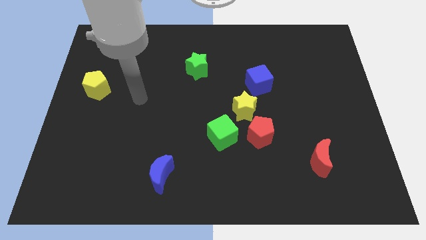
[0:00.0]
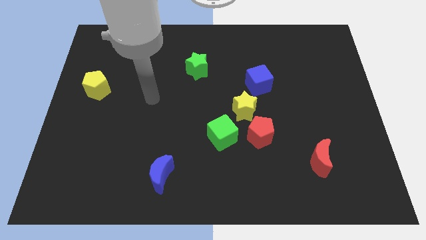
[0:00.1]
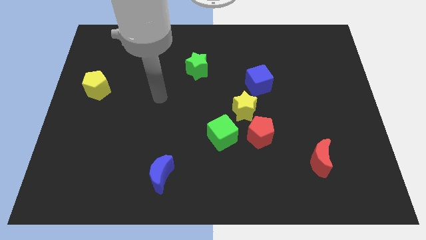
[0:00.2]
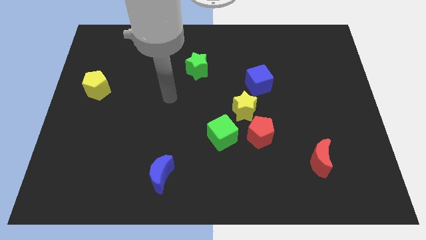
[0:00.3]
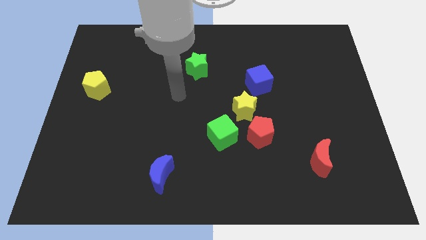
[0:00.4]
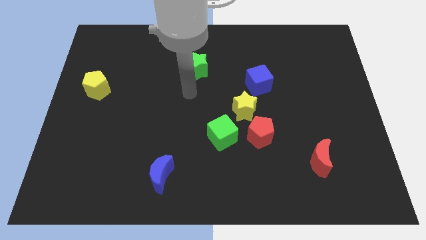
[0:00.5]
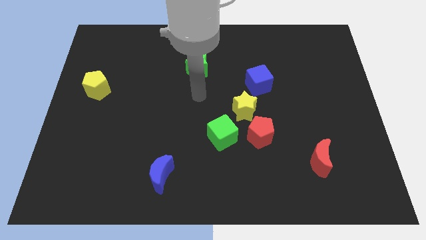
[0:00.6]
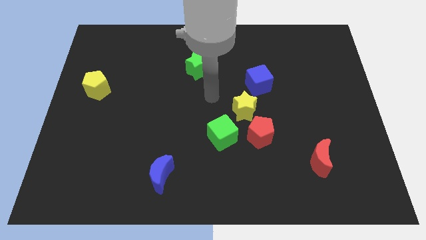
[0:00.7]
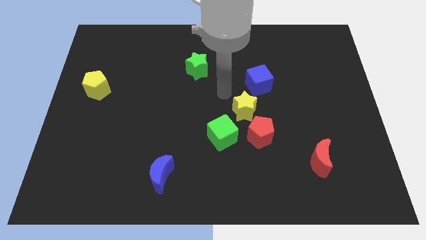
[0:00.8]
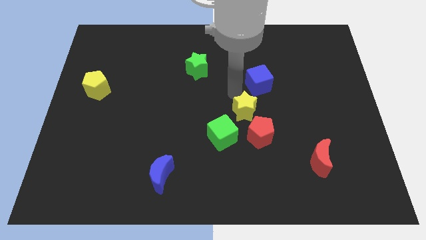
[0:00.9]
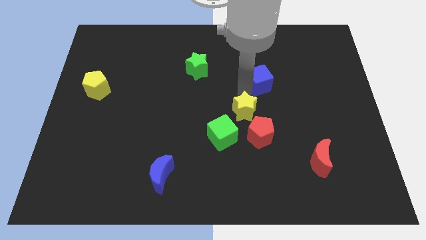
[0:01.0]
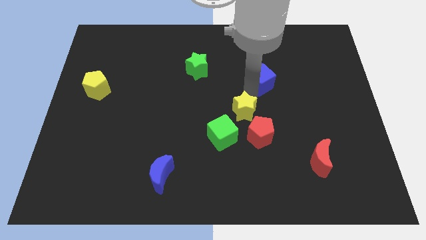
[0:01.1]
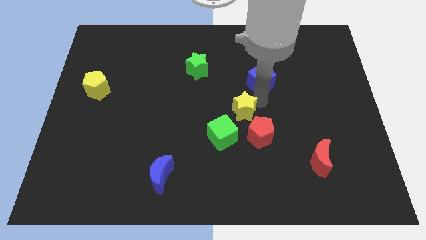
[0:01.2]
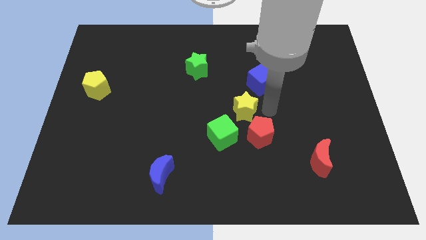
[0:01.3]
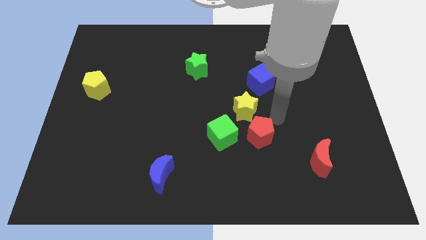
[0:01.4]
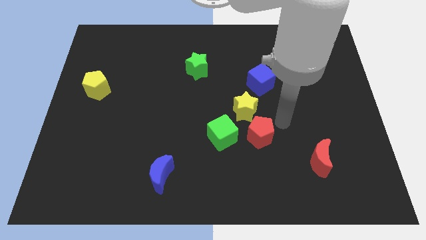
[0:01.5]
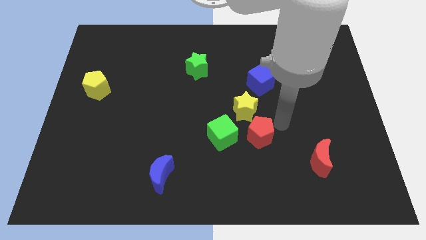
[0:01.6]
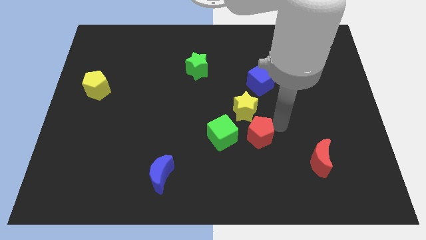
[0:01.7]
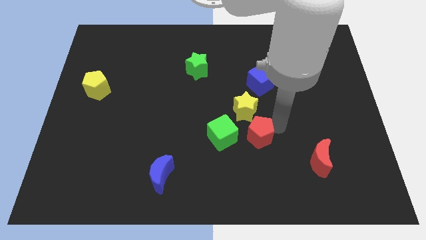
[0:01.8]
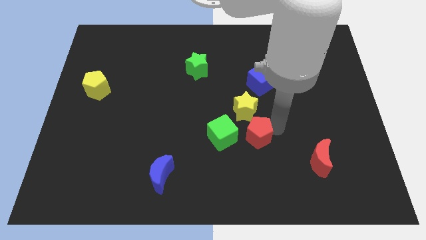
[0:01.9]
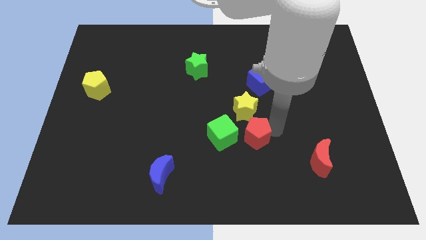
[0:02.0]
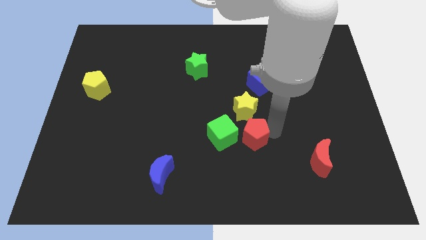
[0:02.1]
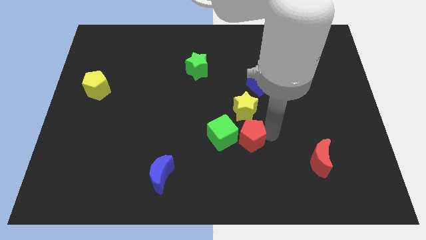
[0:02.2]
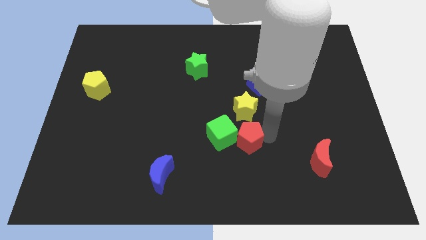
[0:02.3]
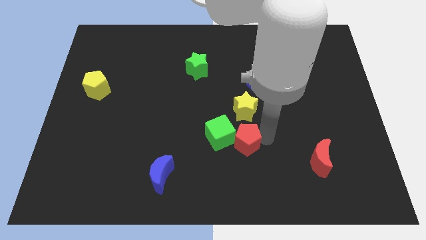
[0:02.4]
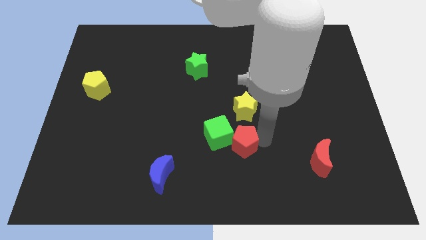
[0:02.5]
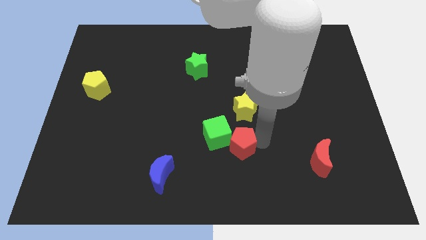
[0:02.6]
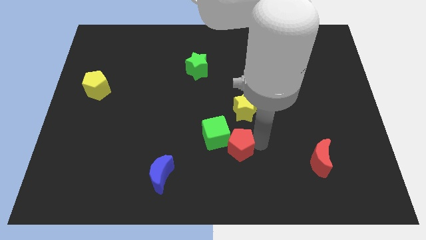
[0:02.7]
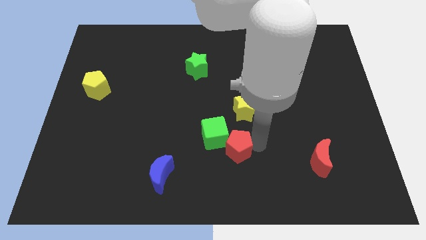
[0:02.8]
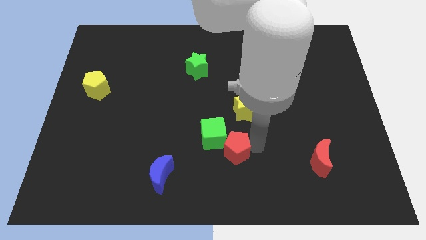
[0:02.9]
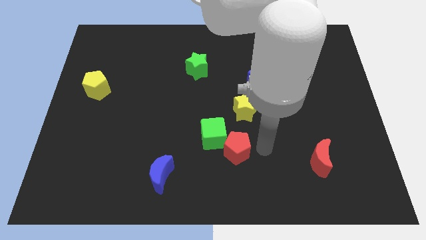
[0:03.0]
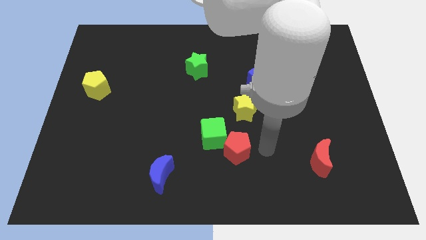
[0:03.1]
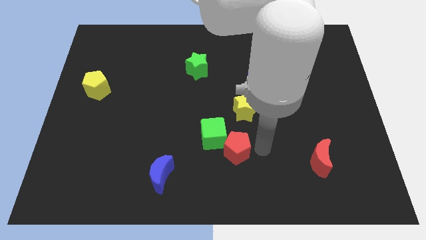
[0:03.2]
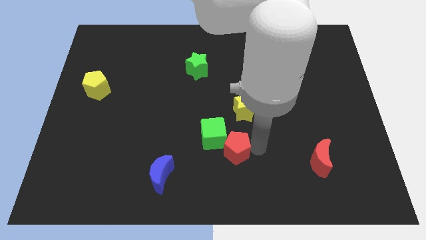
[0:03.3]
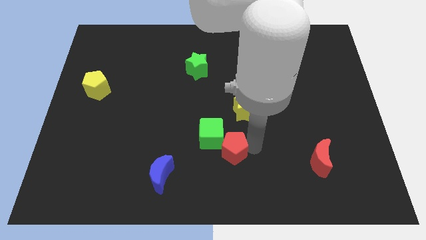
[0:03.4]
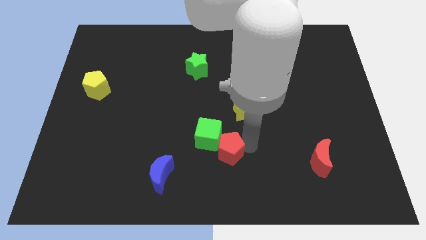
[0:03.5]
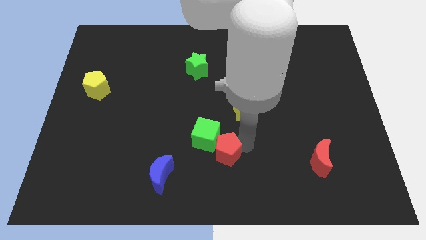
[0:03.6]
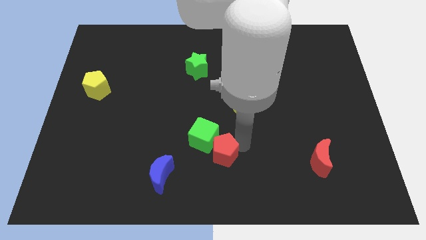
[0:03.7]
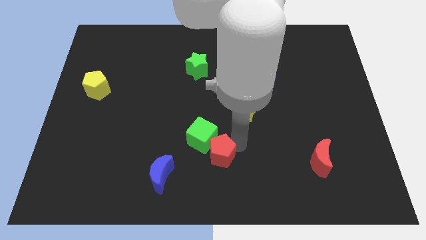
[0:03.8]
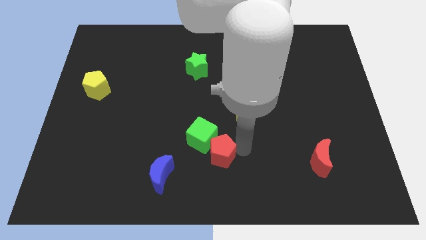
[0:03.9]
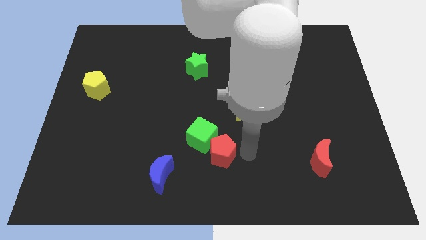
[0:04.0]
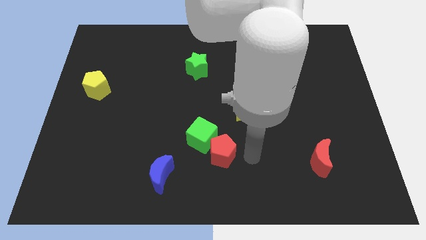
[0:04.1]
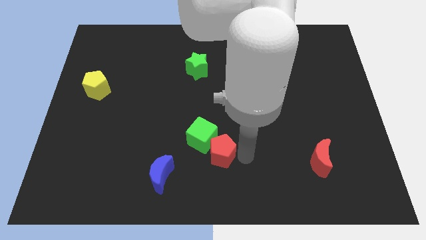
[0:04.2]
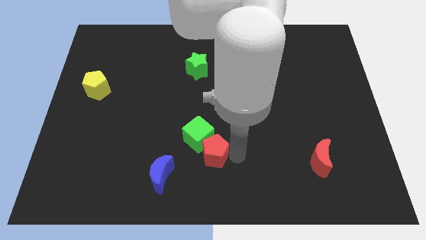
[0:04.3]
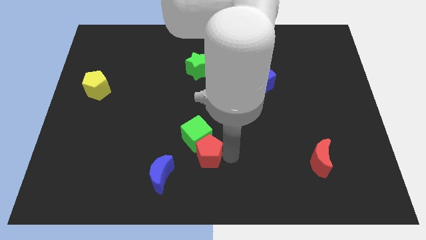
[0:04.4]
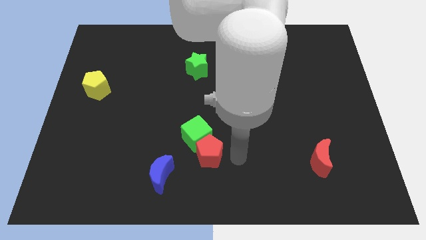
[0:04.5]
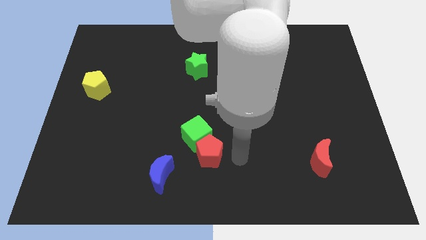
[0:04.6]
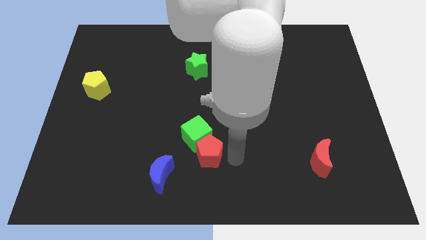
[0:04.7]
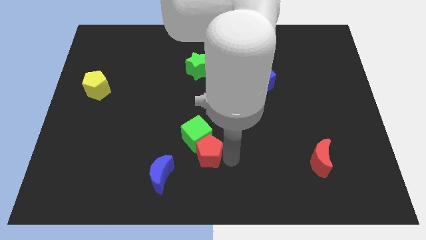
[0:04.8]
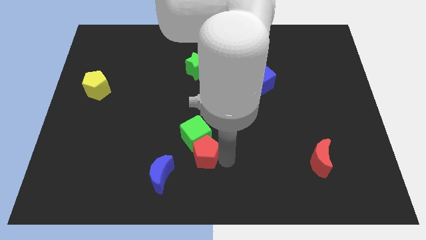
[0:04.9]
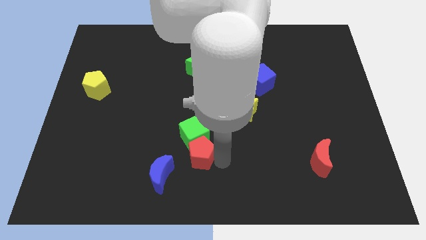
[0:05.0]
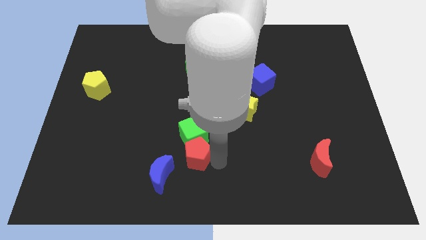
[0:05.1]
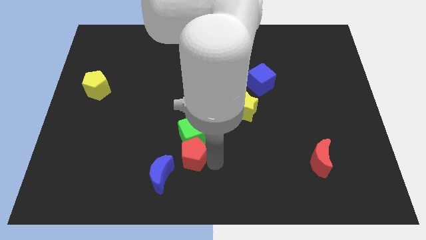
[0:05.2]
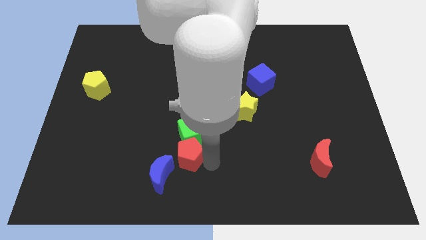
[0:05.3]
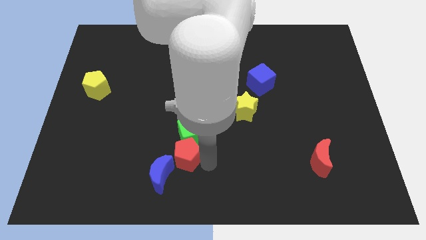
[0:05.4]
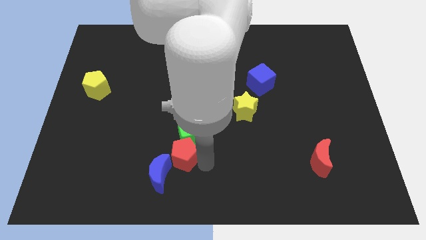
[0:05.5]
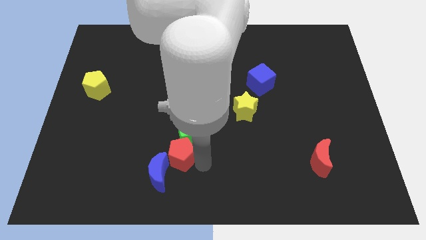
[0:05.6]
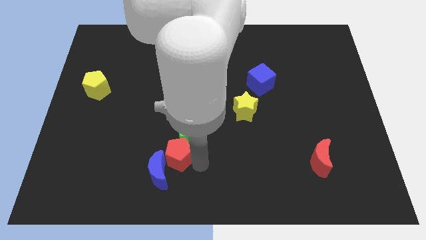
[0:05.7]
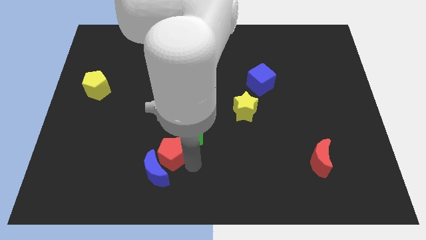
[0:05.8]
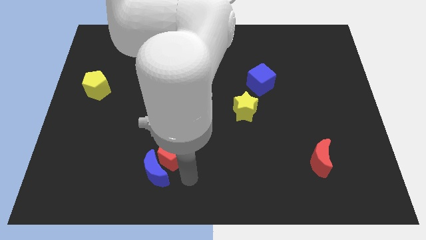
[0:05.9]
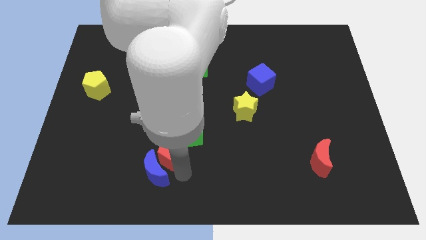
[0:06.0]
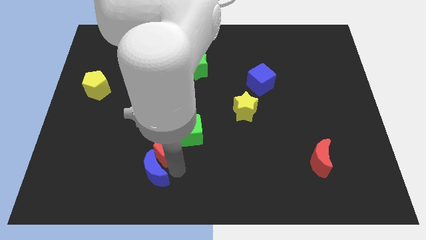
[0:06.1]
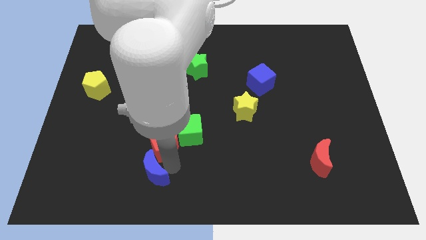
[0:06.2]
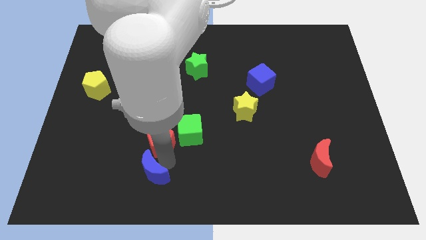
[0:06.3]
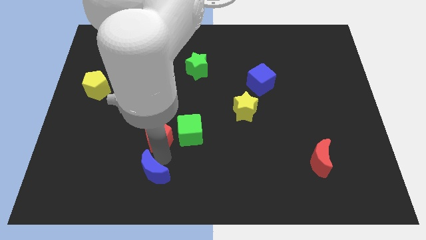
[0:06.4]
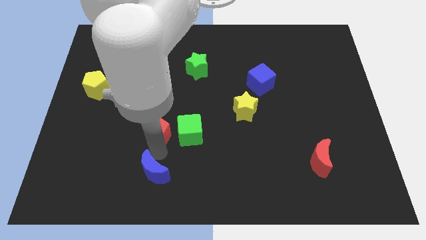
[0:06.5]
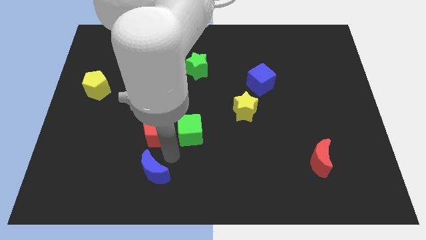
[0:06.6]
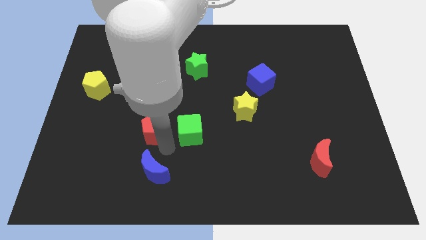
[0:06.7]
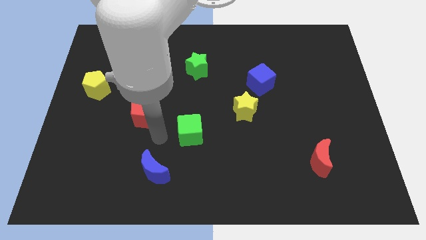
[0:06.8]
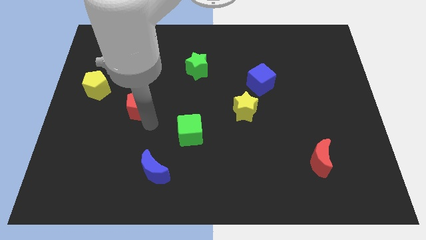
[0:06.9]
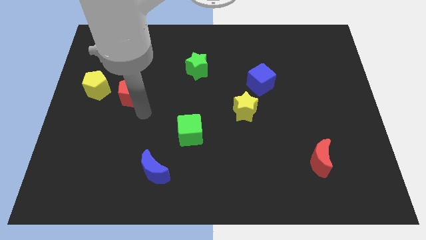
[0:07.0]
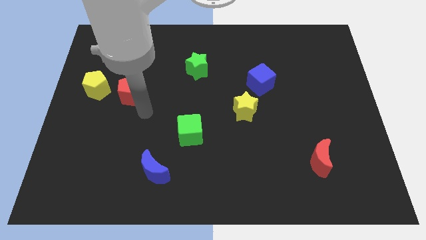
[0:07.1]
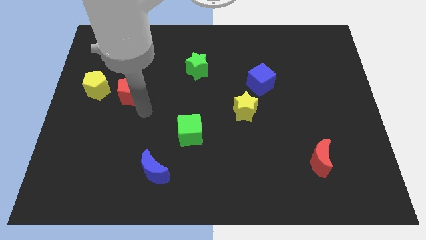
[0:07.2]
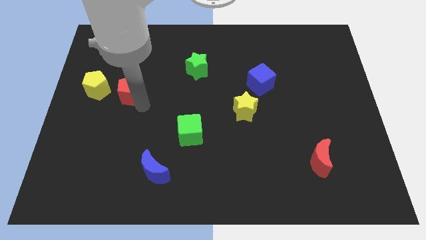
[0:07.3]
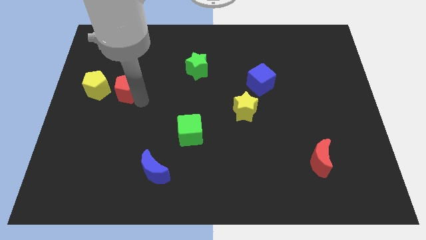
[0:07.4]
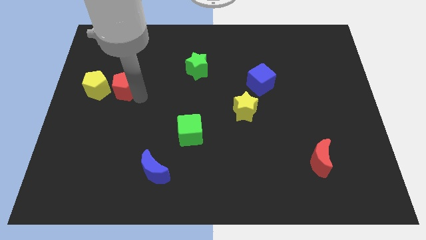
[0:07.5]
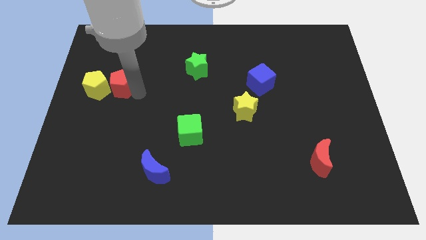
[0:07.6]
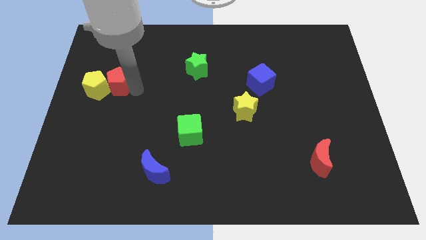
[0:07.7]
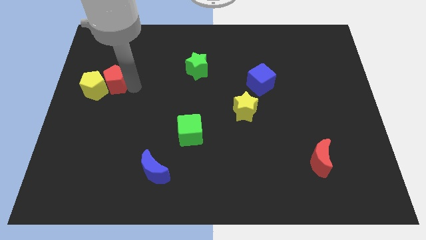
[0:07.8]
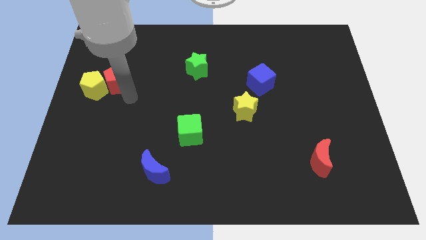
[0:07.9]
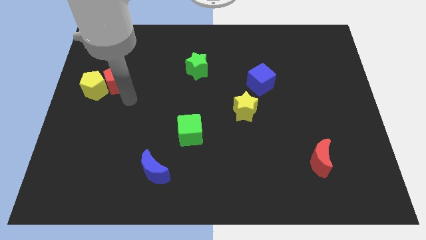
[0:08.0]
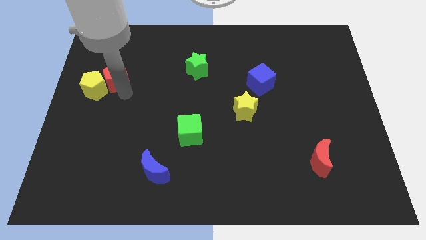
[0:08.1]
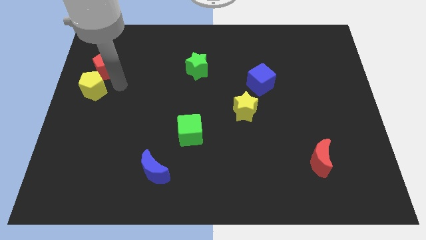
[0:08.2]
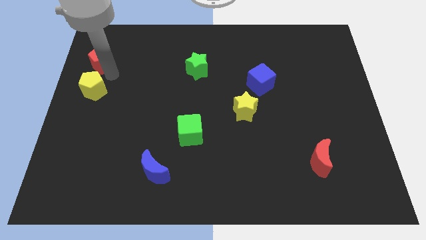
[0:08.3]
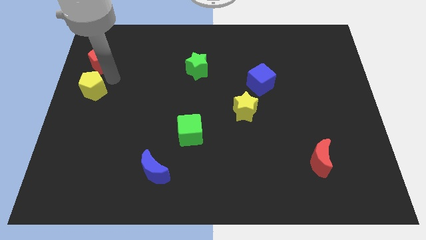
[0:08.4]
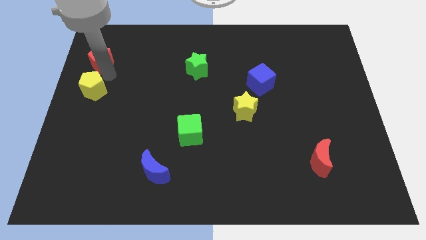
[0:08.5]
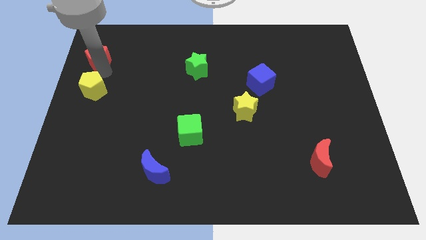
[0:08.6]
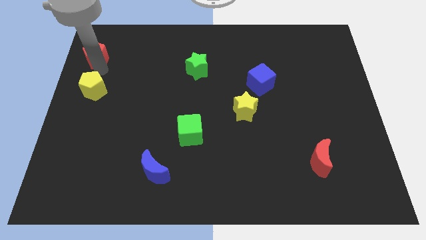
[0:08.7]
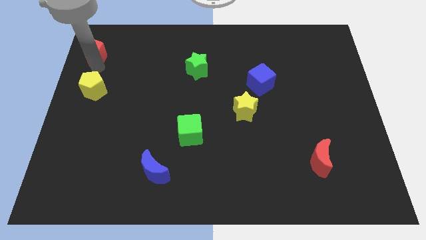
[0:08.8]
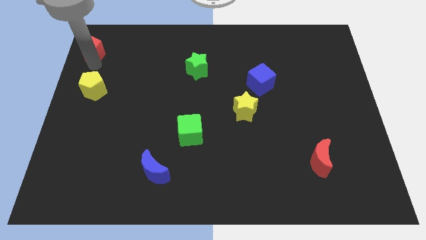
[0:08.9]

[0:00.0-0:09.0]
push the red pentagon to the top left corner
